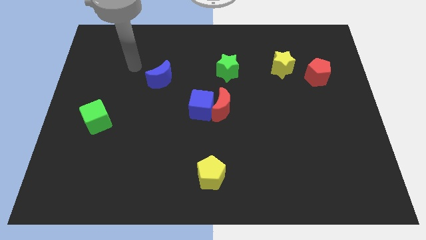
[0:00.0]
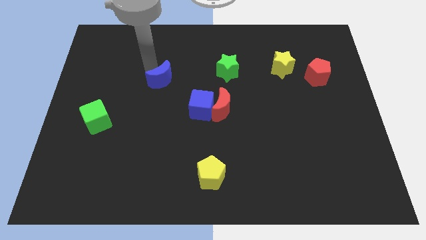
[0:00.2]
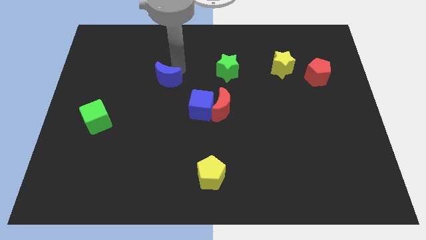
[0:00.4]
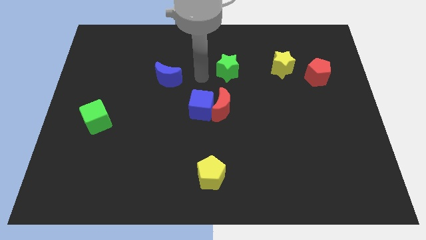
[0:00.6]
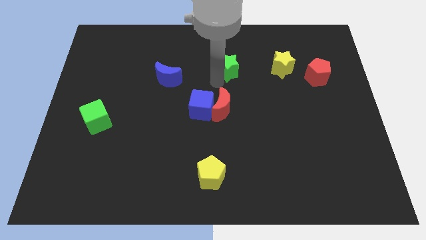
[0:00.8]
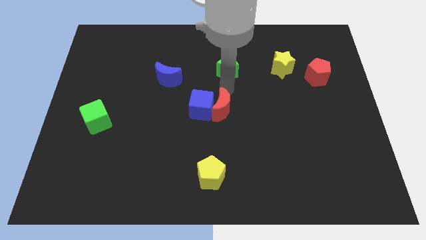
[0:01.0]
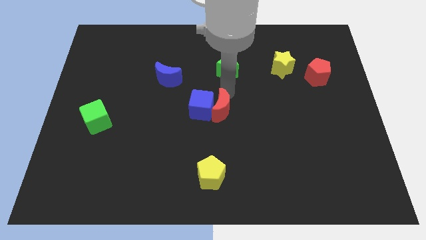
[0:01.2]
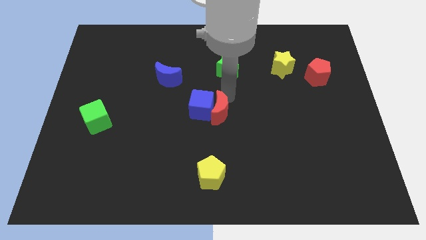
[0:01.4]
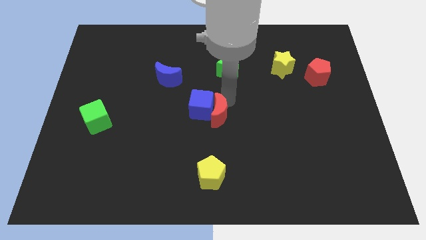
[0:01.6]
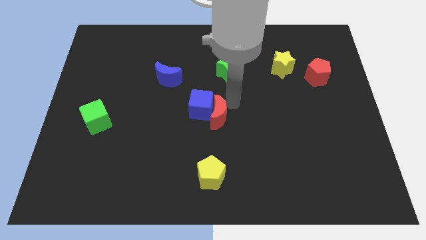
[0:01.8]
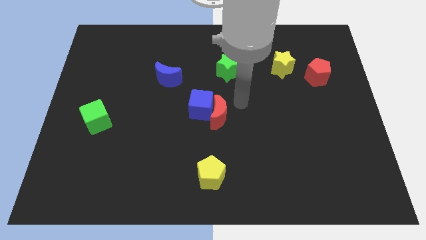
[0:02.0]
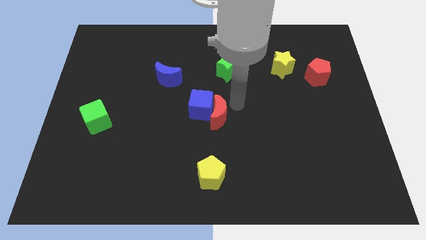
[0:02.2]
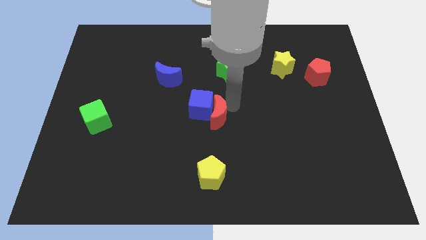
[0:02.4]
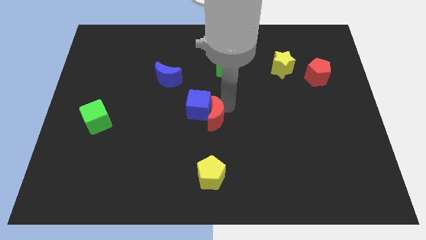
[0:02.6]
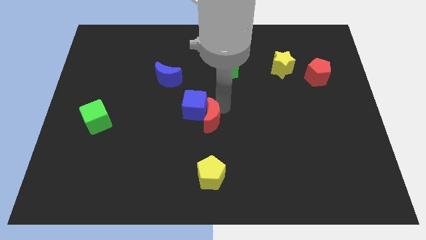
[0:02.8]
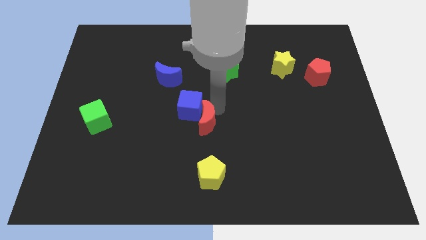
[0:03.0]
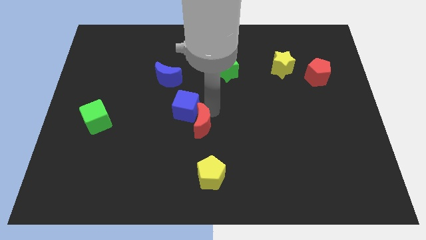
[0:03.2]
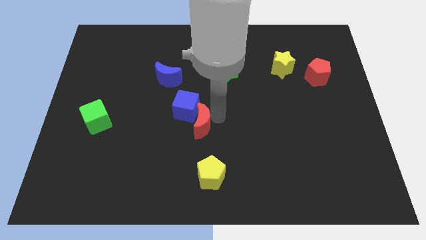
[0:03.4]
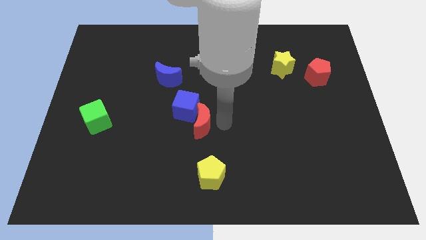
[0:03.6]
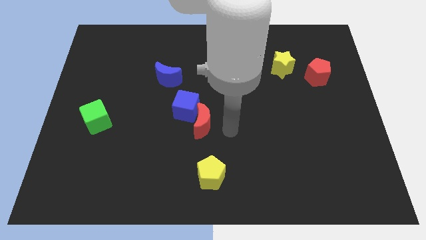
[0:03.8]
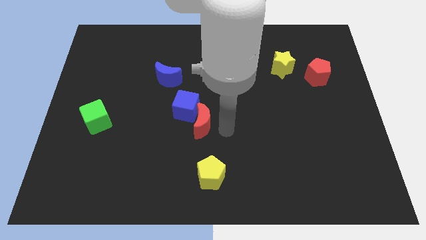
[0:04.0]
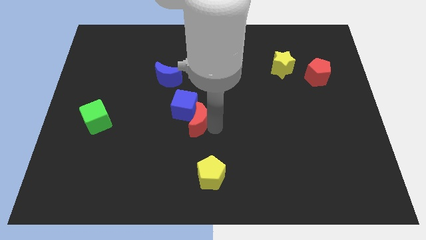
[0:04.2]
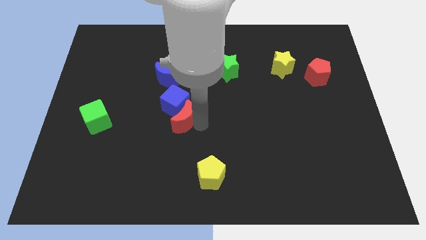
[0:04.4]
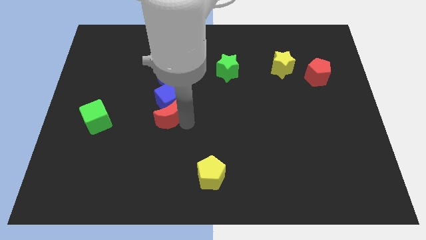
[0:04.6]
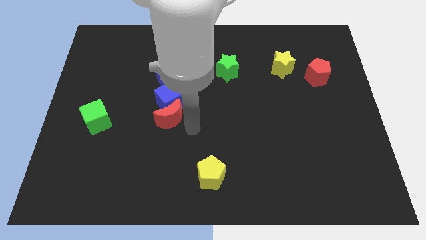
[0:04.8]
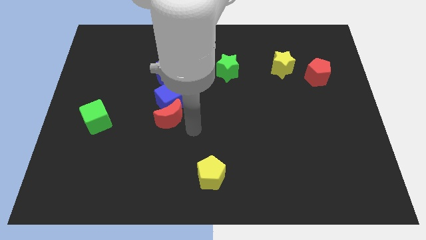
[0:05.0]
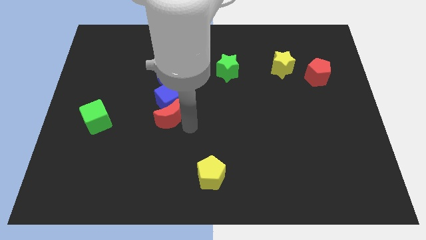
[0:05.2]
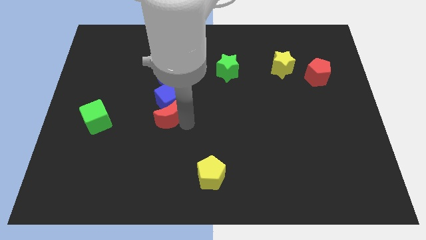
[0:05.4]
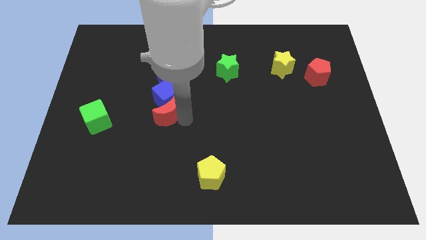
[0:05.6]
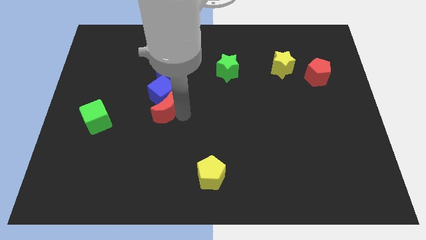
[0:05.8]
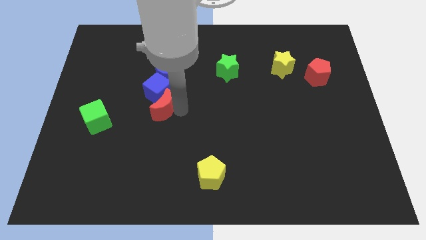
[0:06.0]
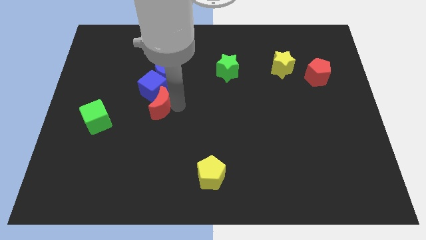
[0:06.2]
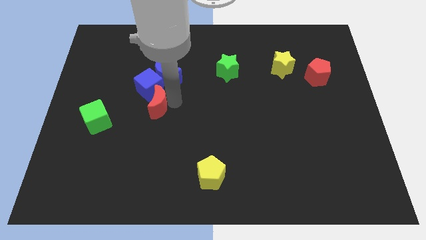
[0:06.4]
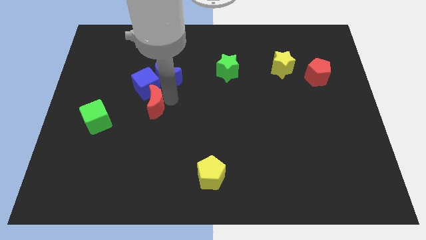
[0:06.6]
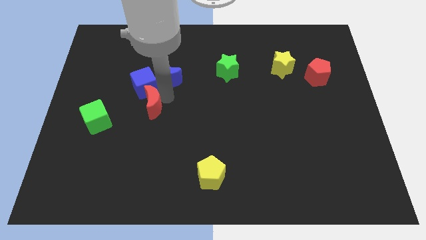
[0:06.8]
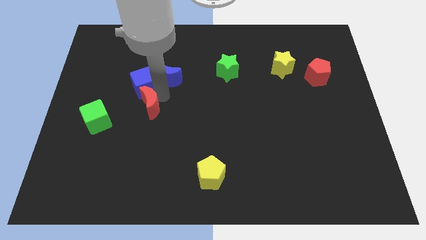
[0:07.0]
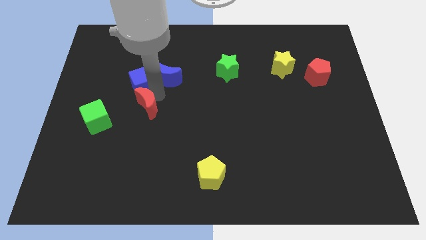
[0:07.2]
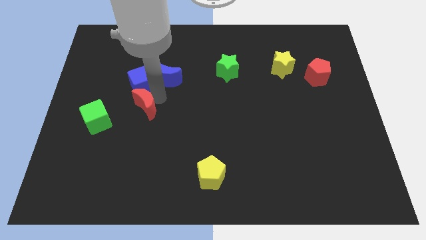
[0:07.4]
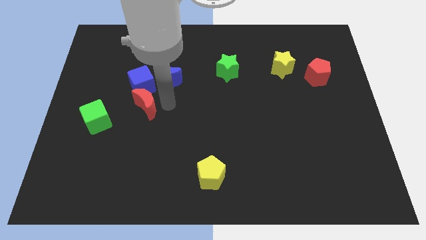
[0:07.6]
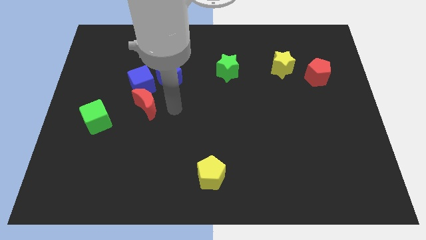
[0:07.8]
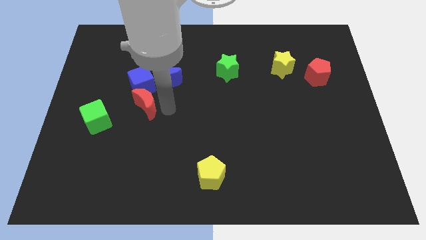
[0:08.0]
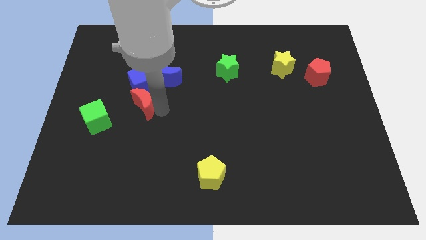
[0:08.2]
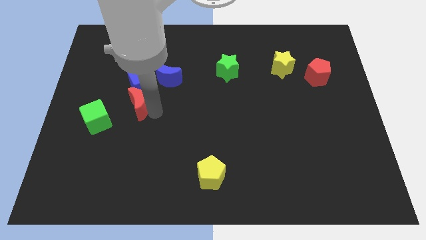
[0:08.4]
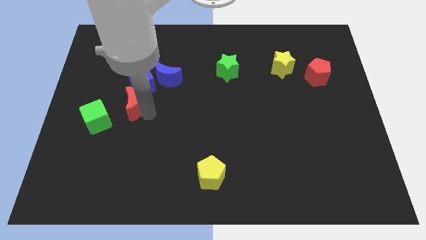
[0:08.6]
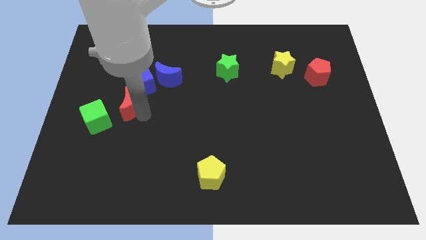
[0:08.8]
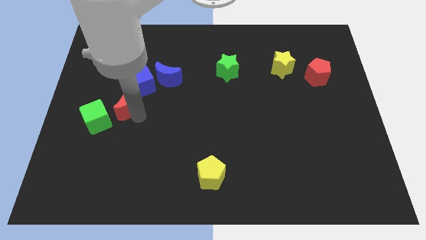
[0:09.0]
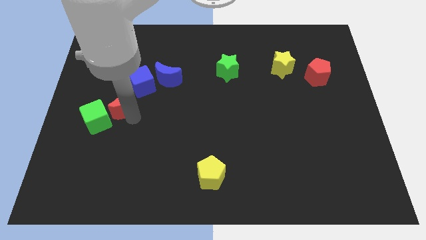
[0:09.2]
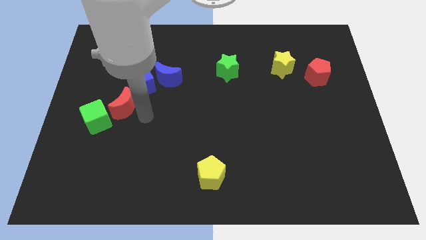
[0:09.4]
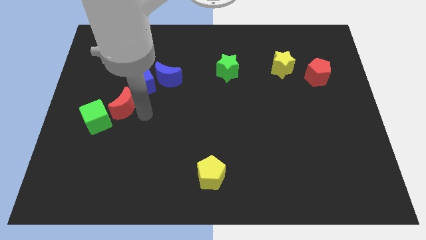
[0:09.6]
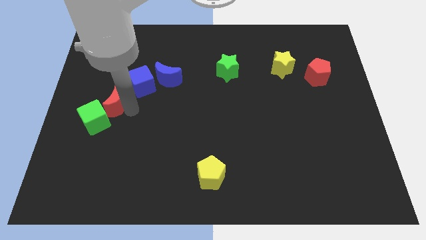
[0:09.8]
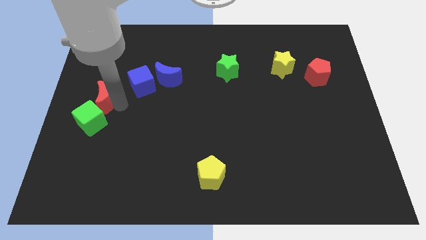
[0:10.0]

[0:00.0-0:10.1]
slide the red moon to the left side of the board

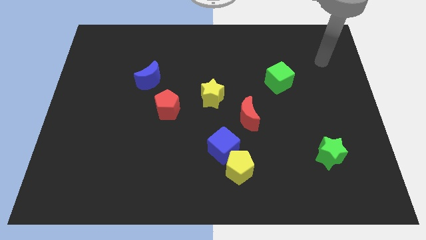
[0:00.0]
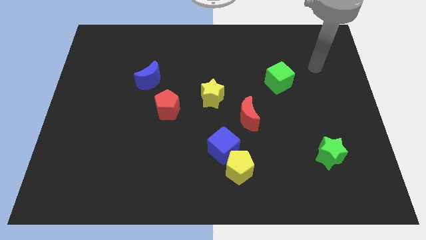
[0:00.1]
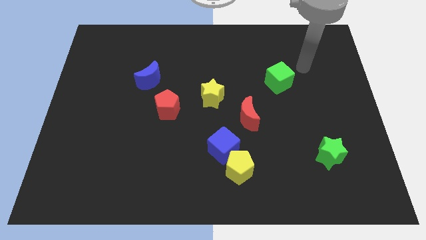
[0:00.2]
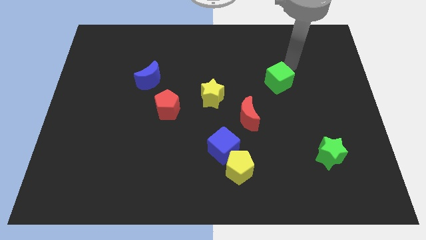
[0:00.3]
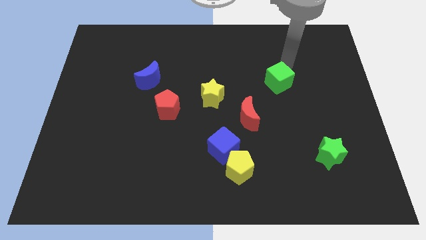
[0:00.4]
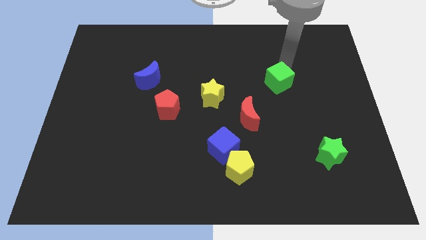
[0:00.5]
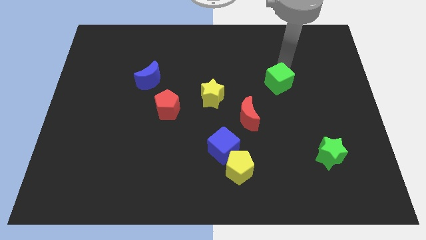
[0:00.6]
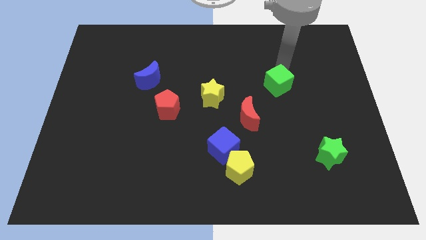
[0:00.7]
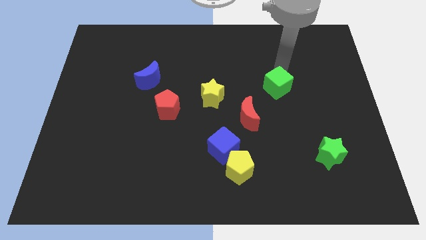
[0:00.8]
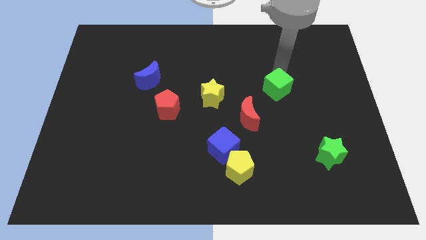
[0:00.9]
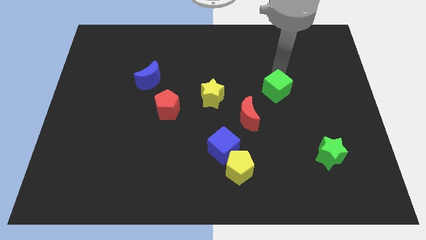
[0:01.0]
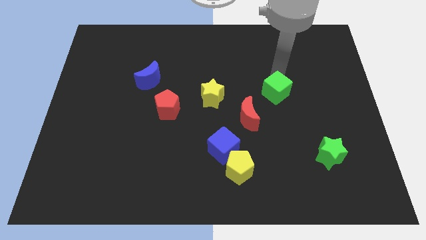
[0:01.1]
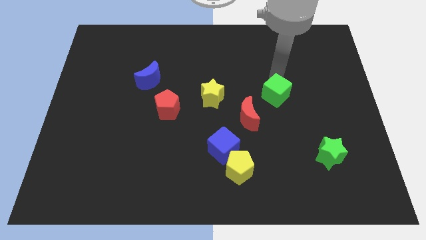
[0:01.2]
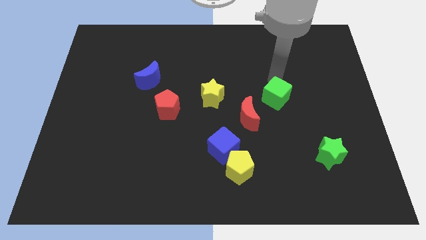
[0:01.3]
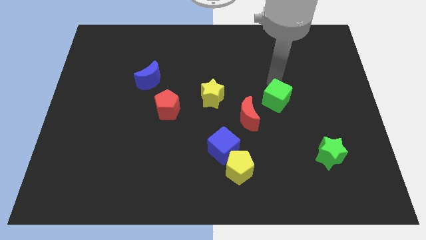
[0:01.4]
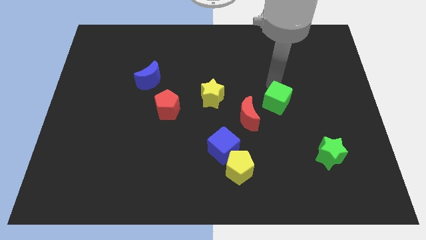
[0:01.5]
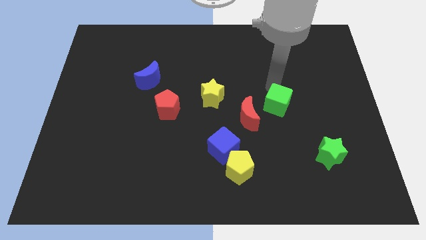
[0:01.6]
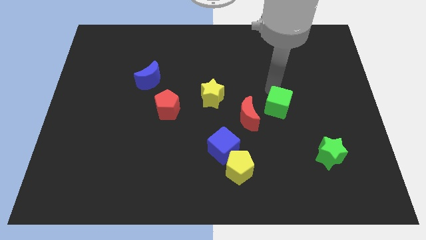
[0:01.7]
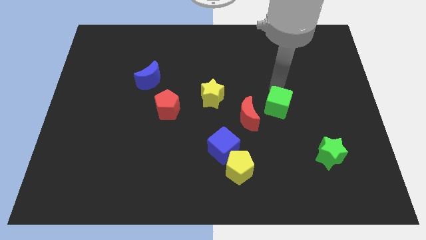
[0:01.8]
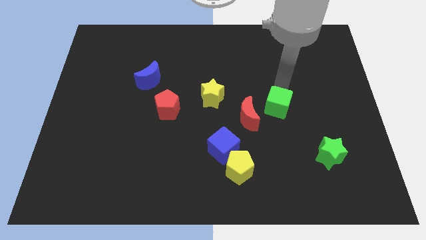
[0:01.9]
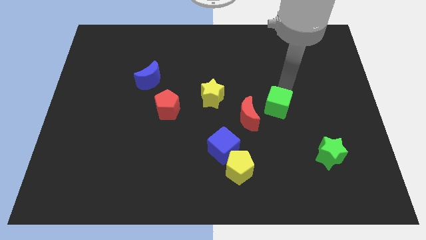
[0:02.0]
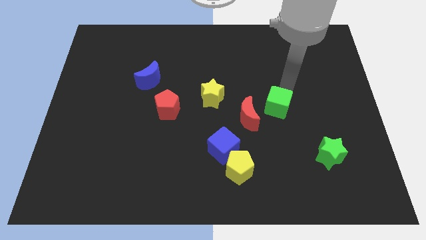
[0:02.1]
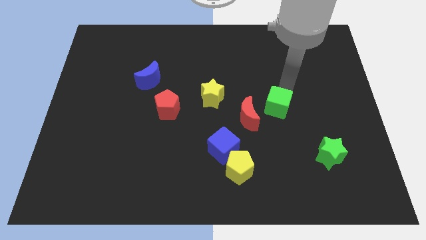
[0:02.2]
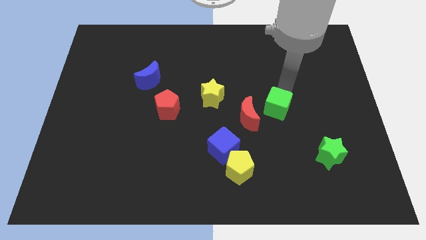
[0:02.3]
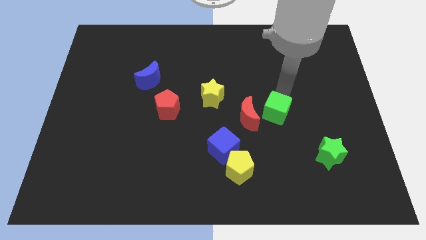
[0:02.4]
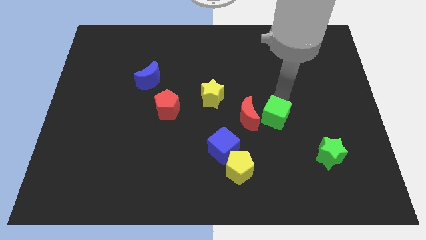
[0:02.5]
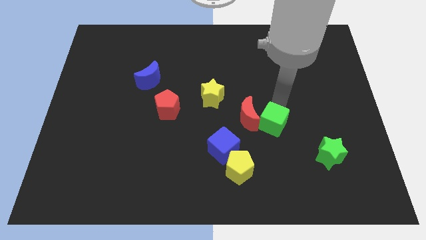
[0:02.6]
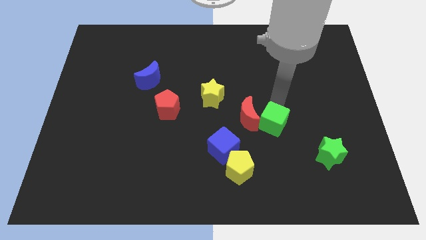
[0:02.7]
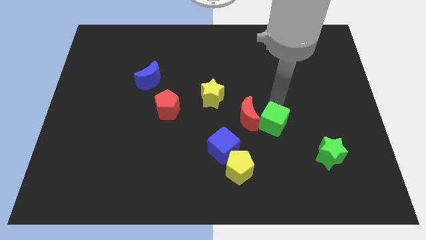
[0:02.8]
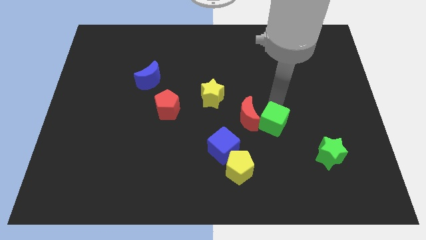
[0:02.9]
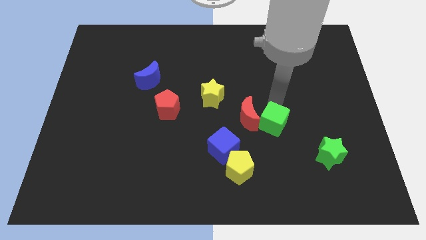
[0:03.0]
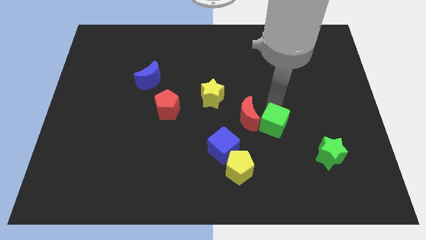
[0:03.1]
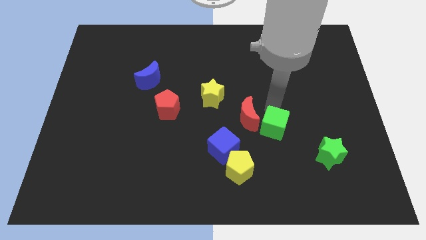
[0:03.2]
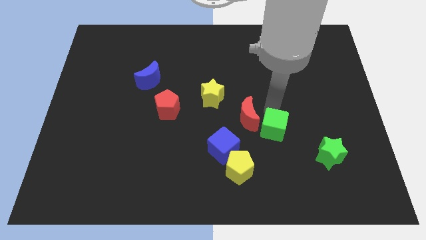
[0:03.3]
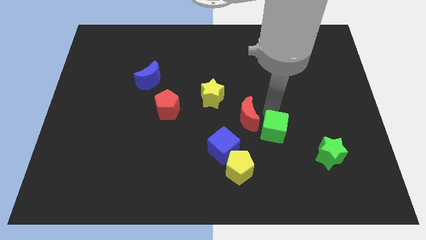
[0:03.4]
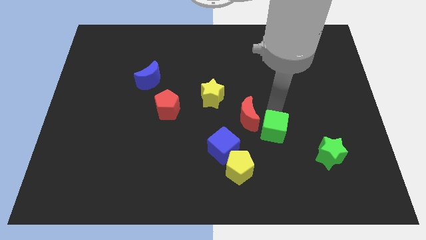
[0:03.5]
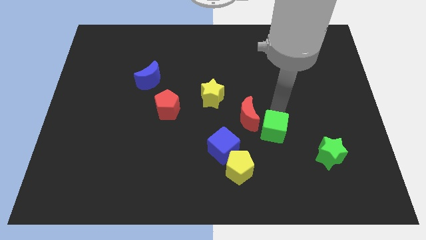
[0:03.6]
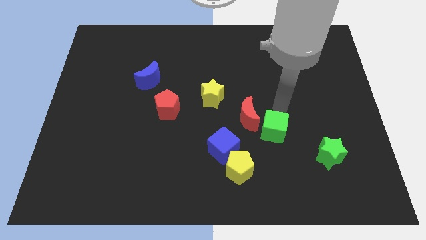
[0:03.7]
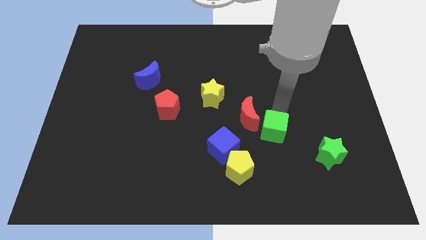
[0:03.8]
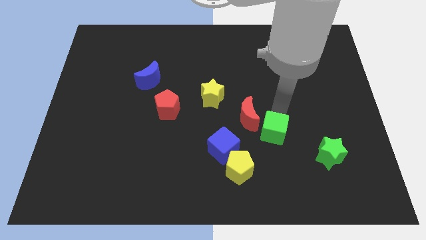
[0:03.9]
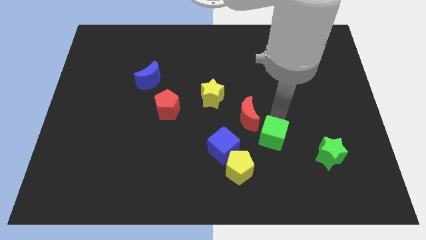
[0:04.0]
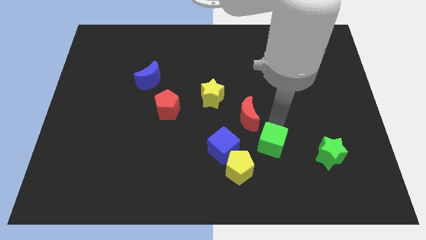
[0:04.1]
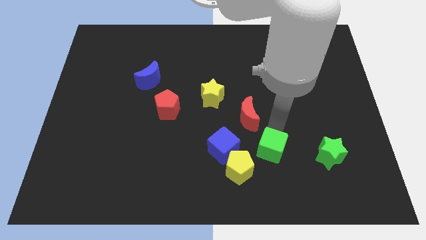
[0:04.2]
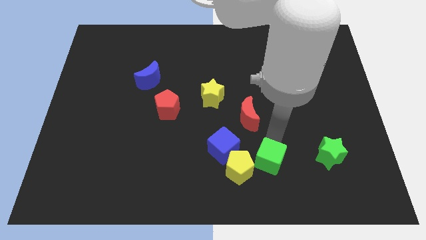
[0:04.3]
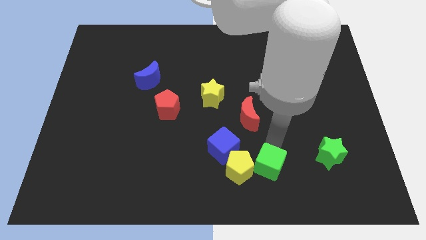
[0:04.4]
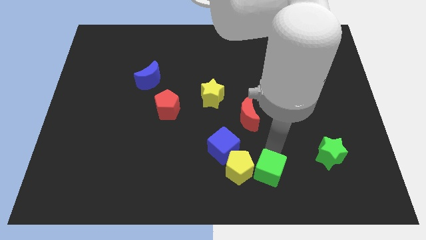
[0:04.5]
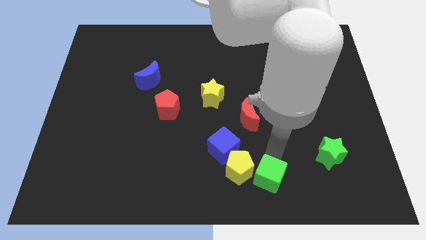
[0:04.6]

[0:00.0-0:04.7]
move the green cube to the bottom
